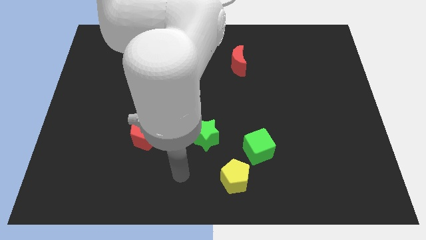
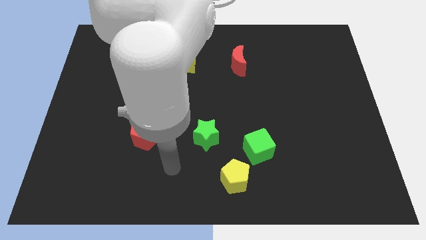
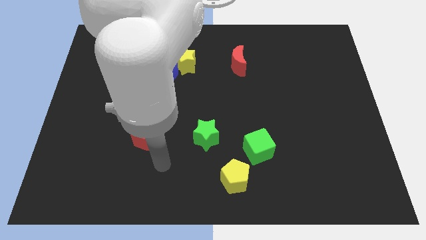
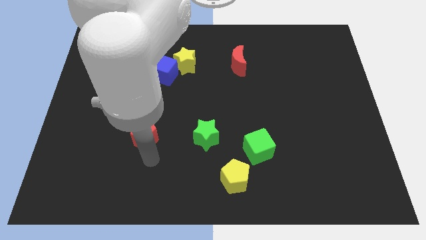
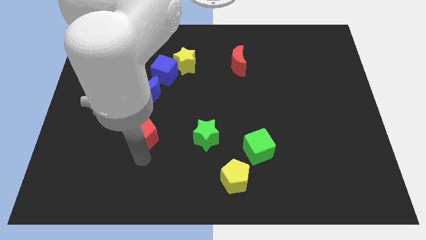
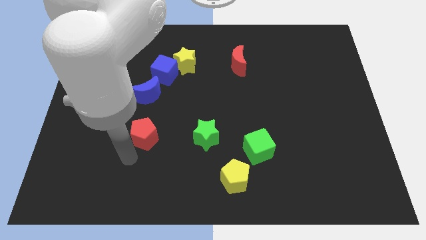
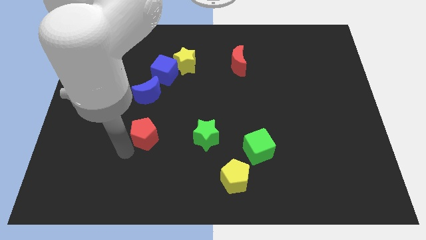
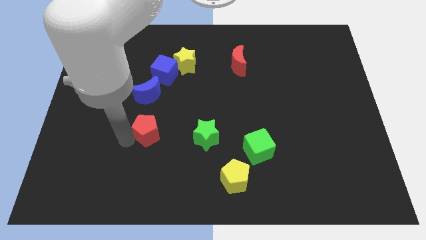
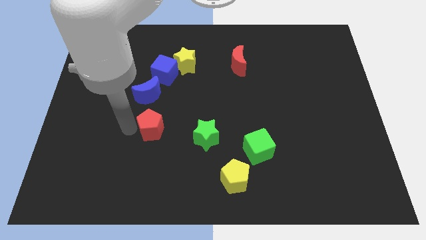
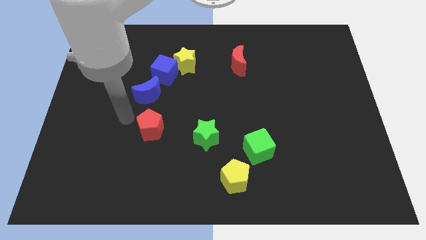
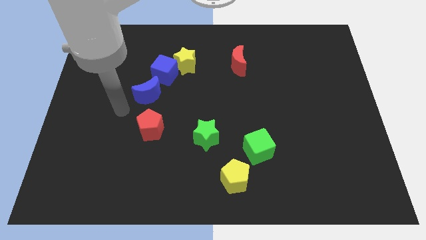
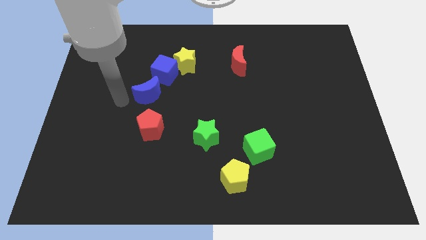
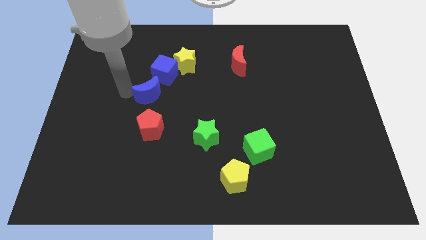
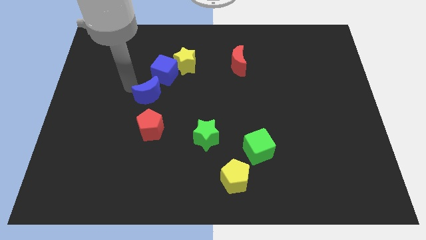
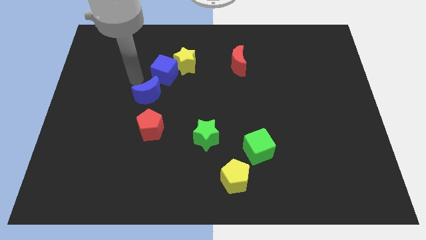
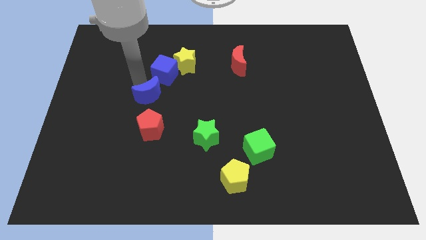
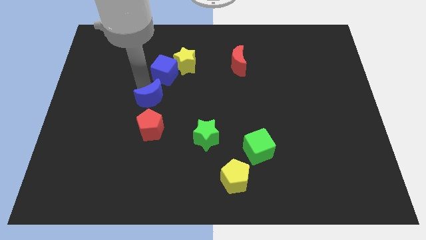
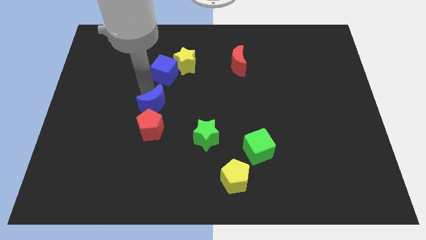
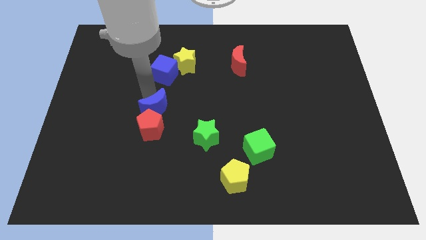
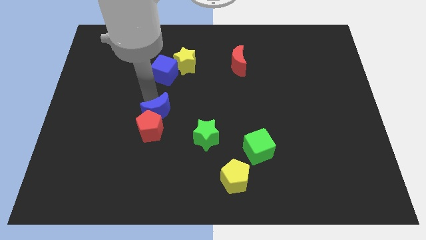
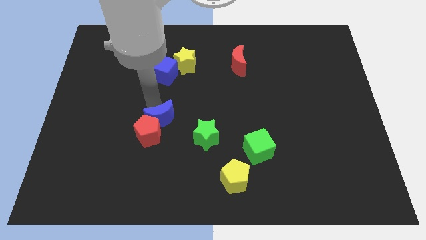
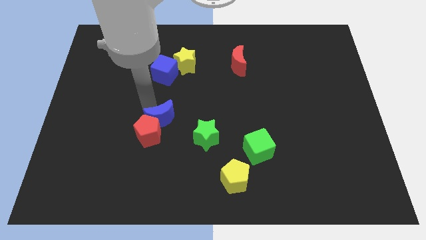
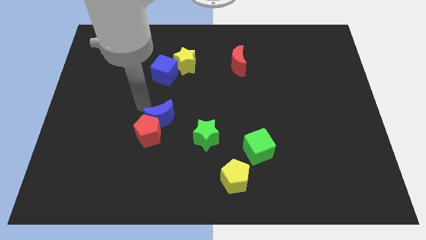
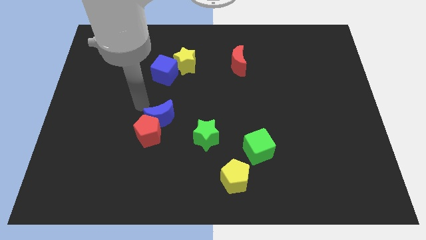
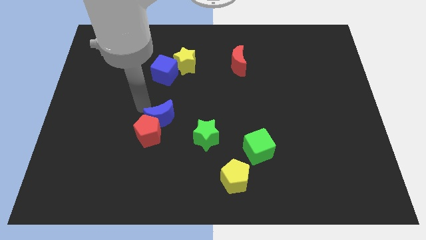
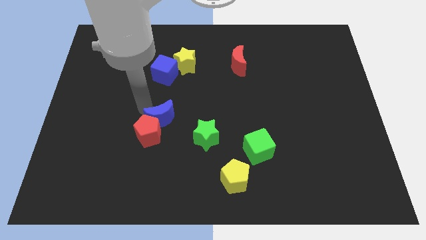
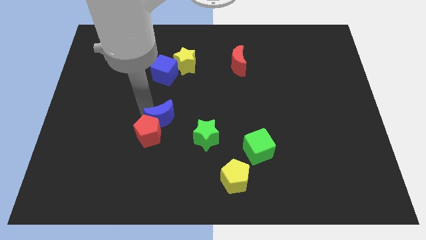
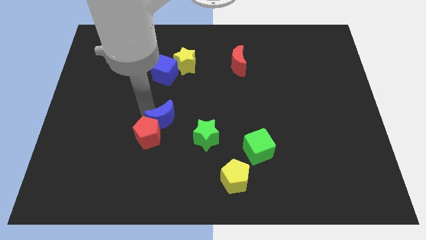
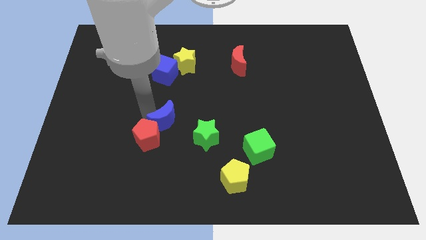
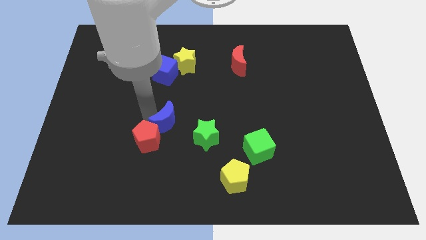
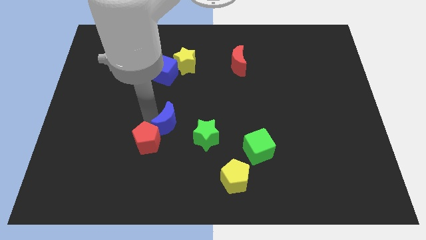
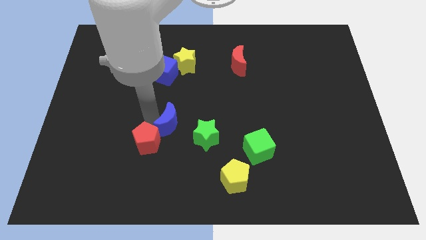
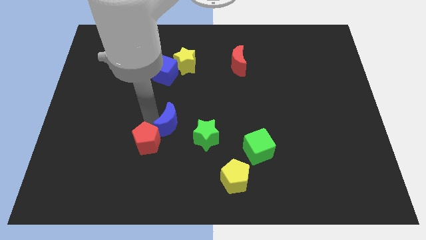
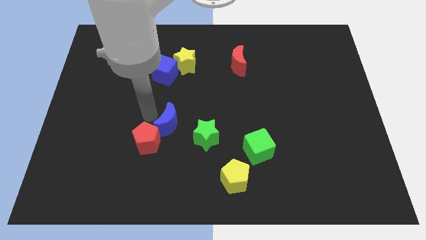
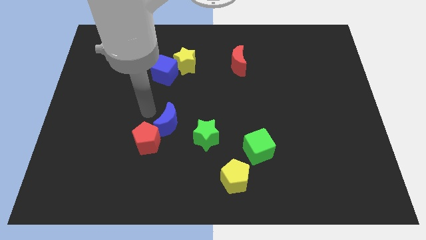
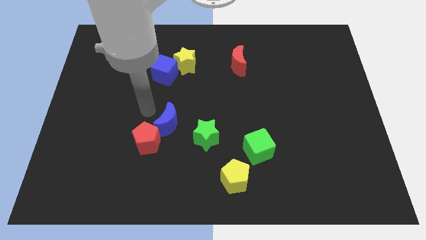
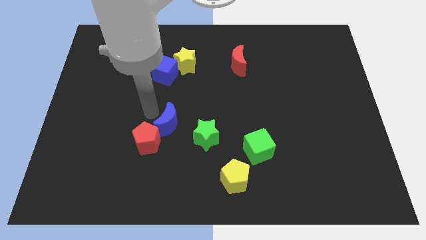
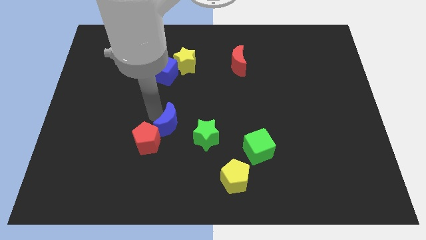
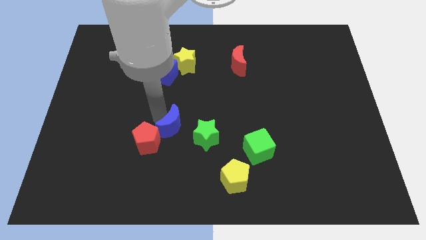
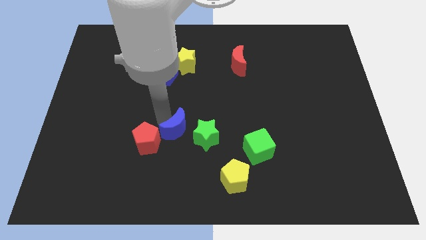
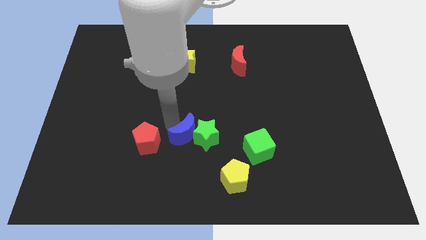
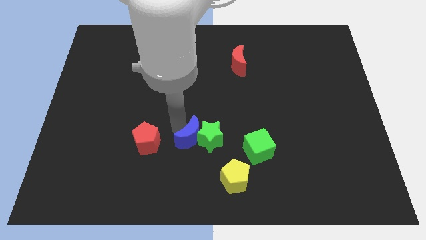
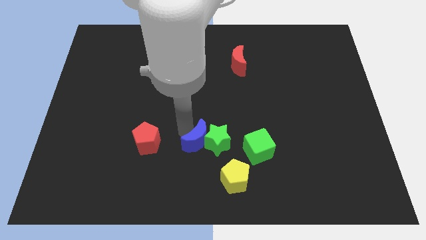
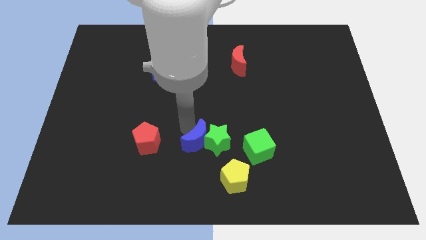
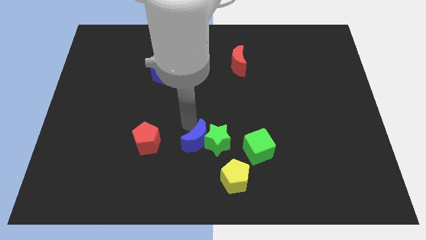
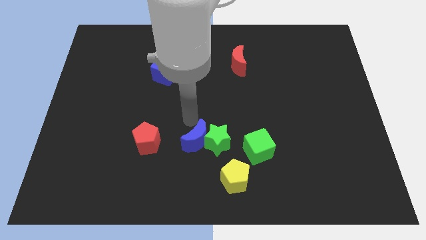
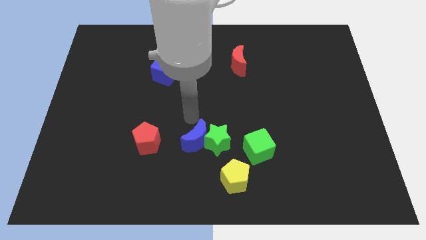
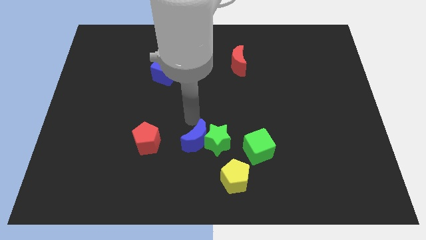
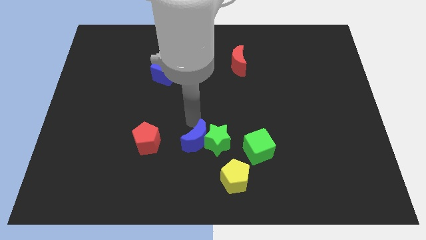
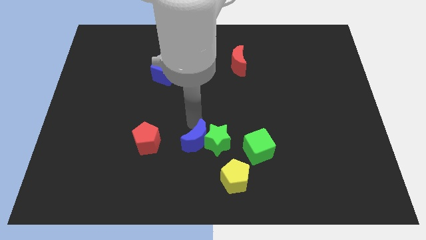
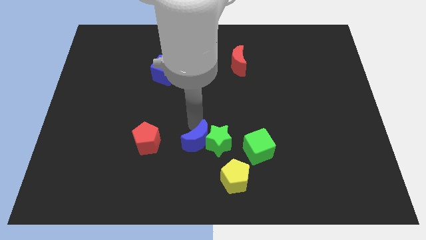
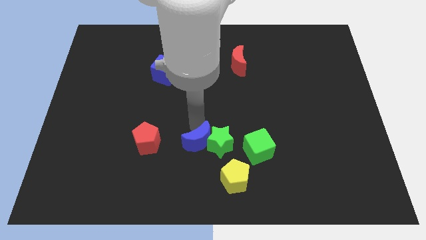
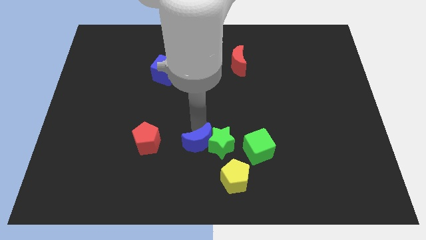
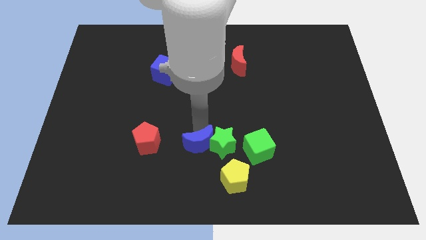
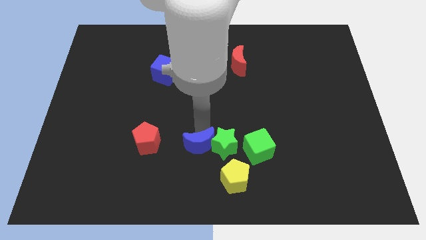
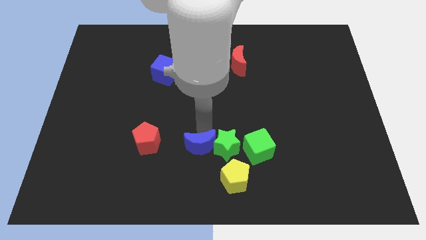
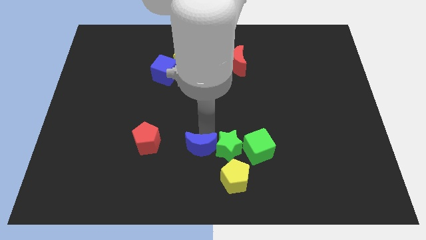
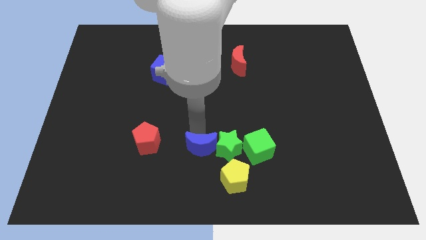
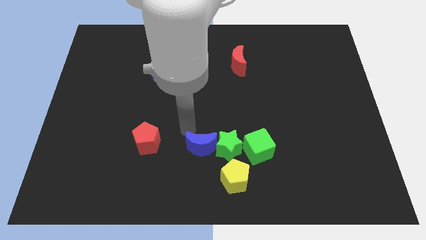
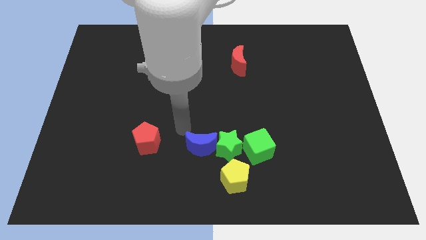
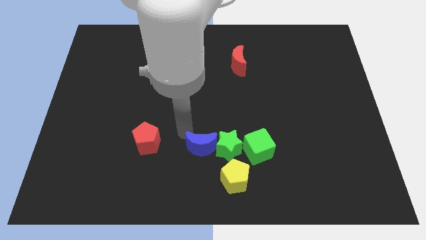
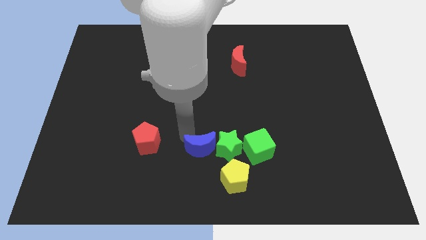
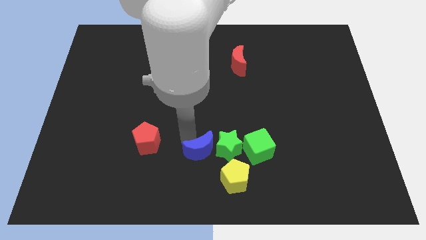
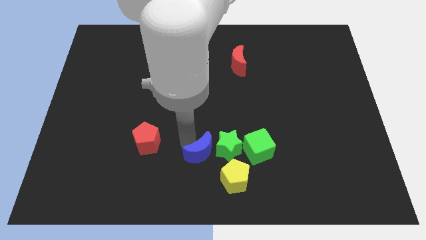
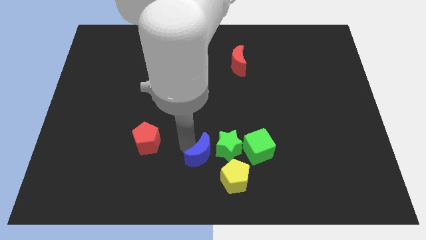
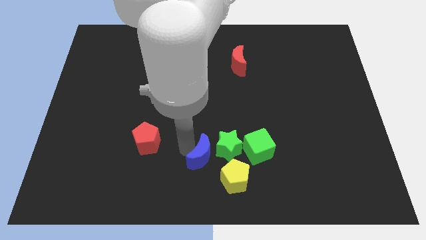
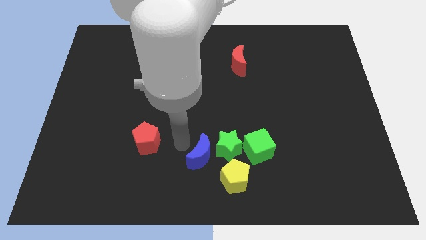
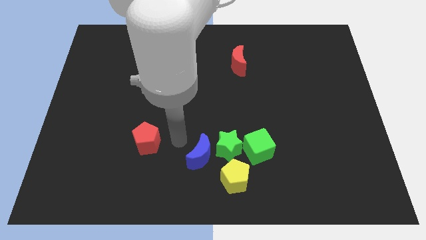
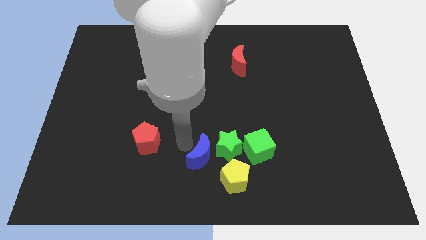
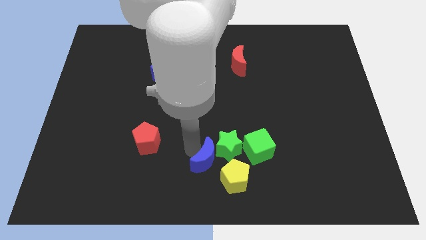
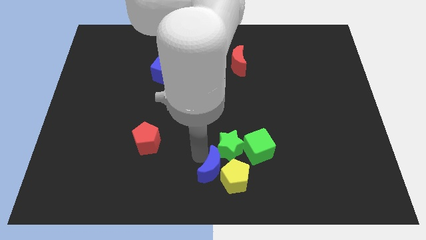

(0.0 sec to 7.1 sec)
move the blue moon to the yellow pentagon
